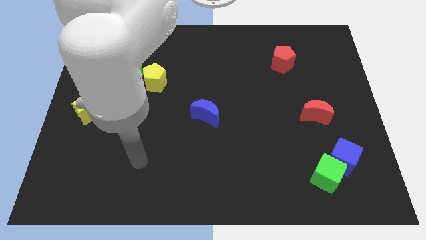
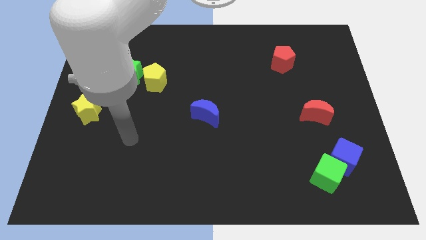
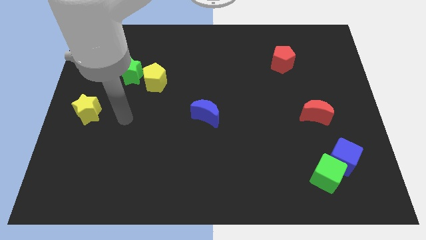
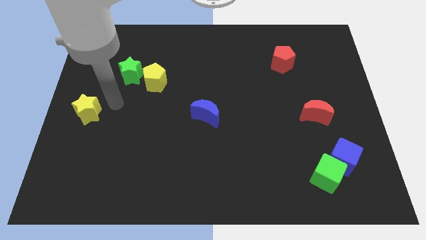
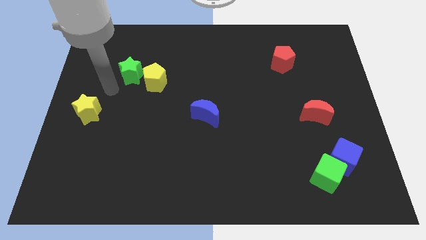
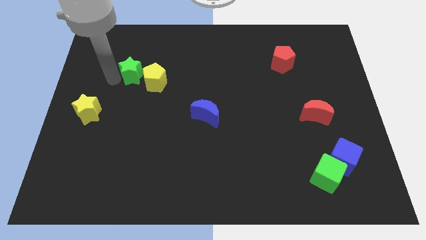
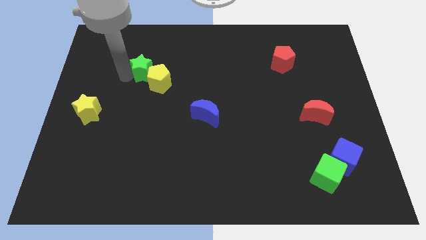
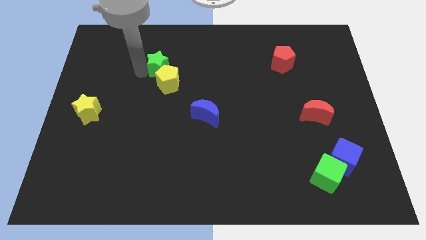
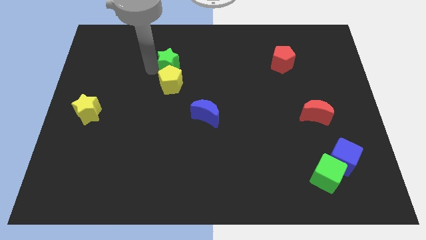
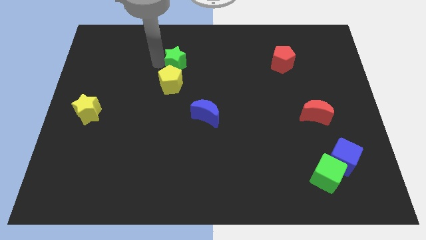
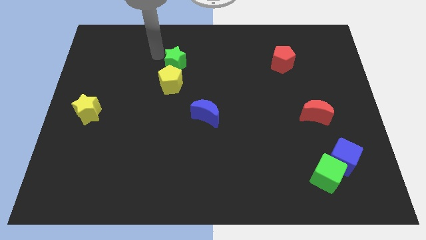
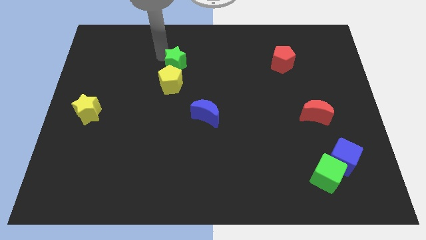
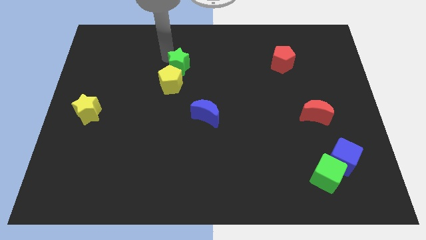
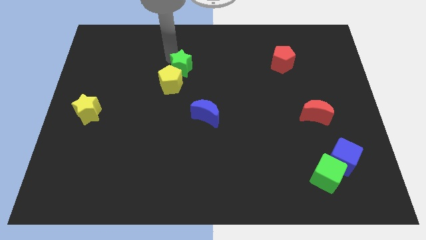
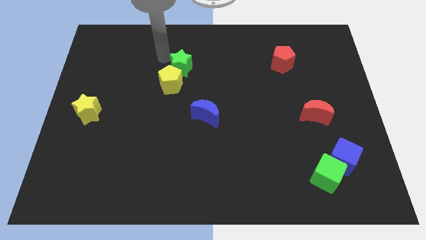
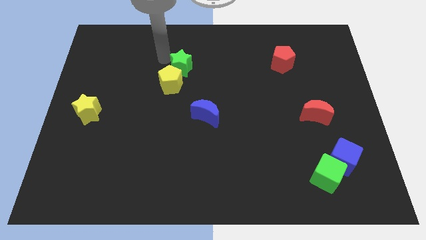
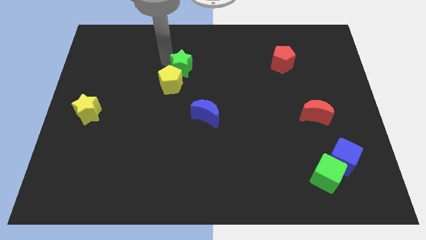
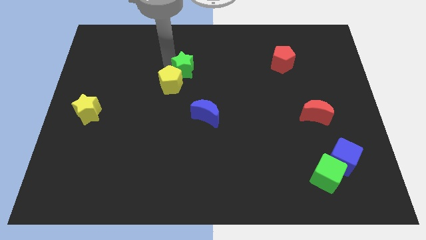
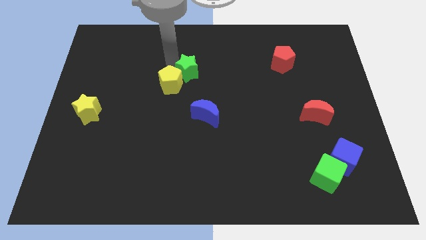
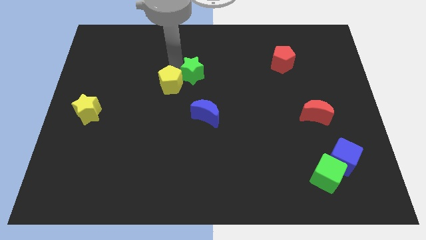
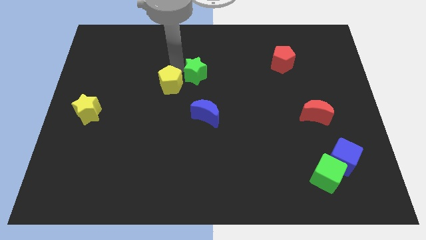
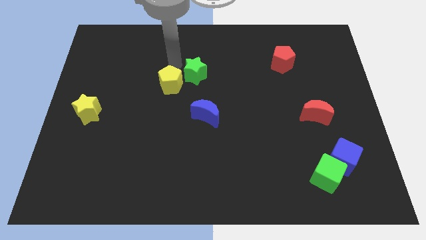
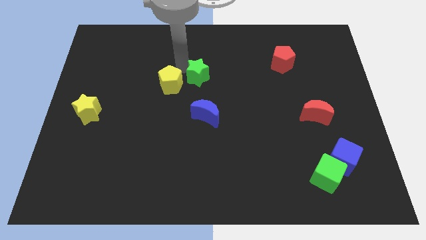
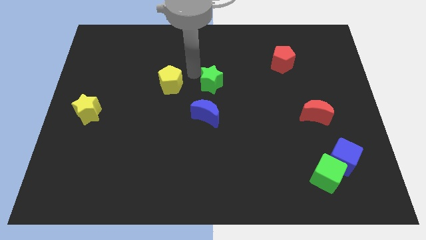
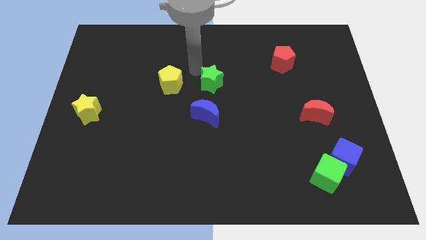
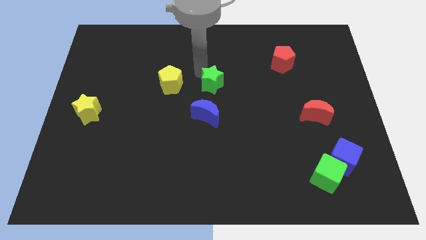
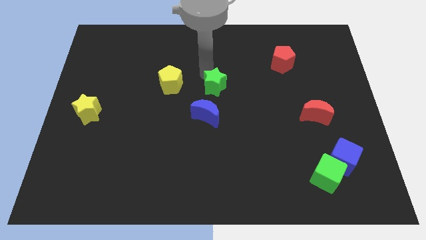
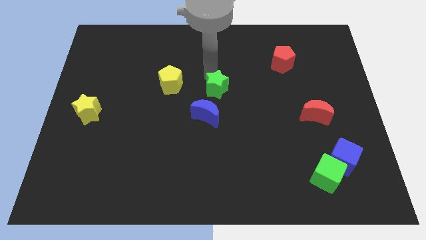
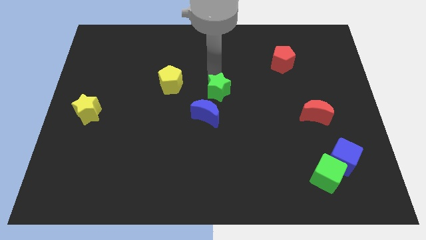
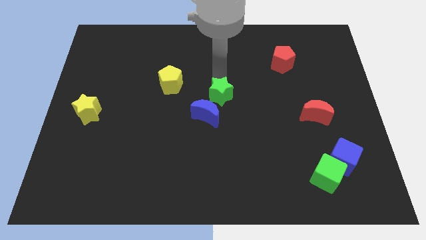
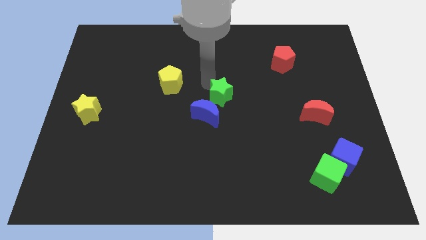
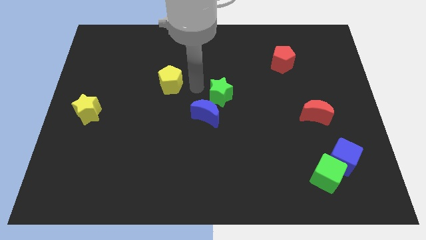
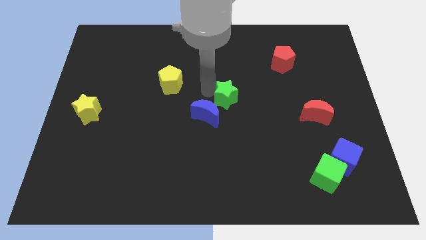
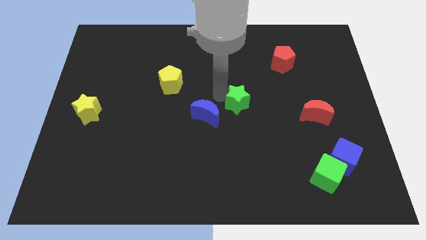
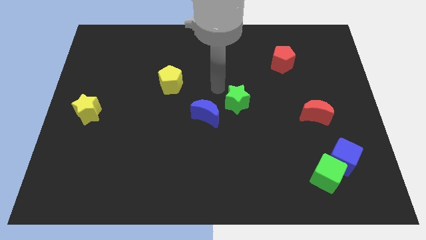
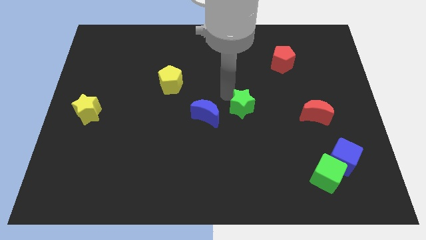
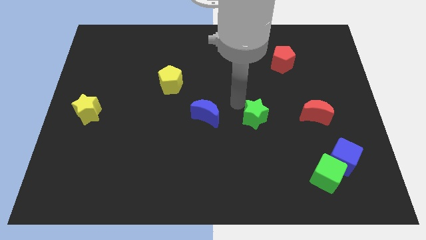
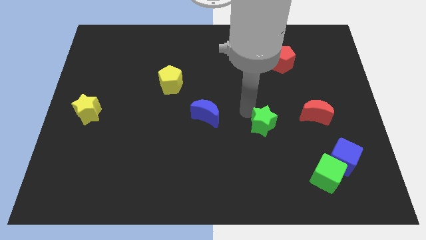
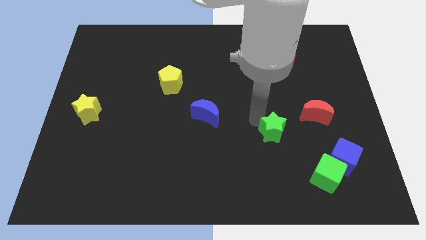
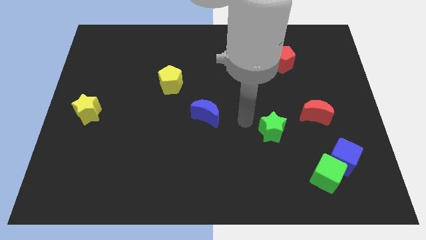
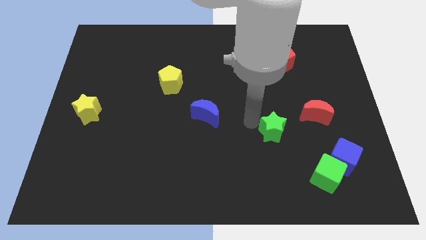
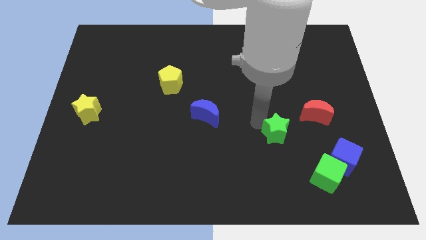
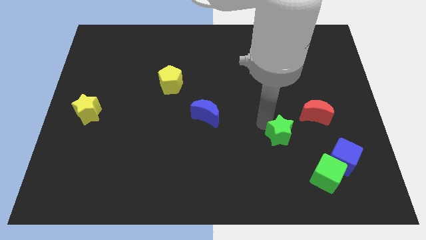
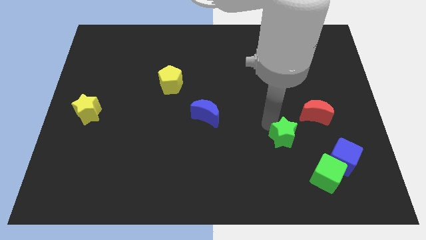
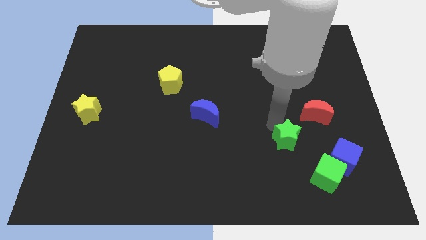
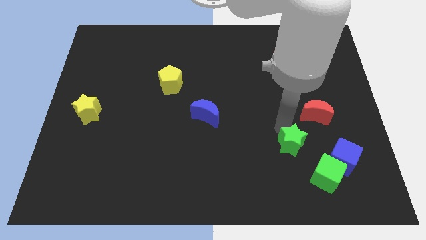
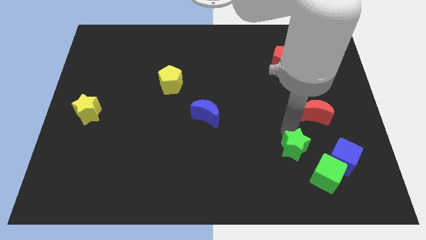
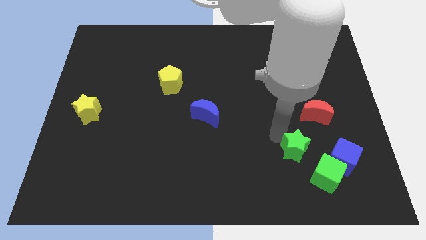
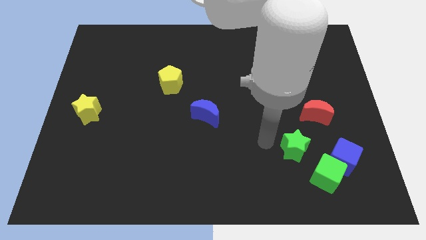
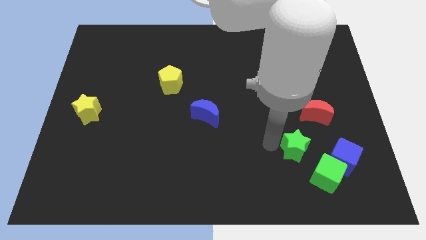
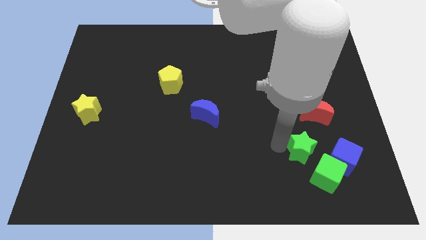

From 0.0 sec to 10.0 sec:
move the green star below the red moon

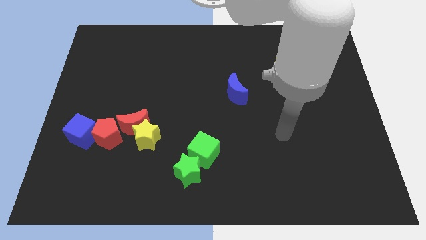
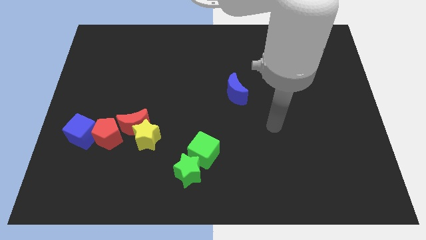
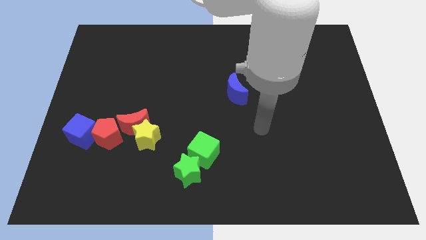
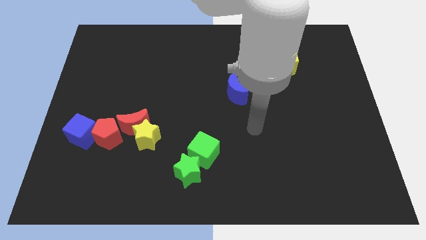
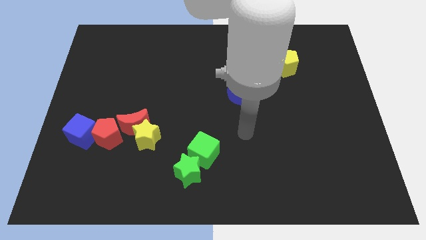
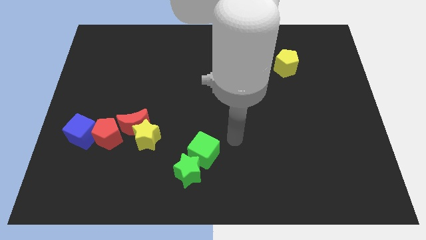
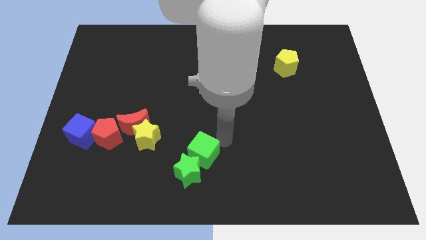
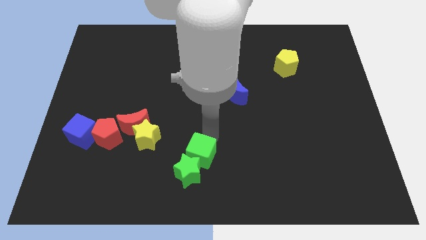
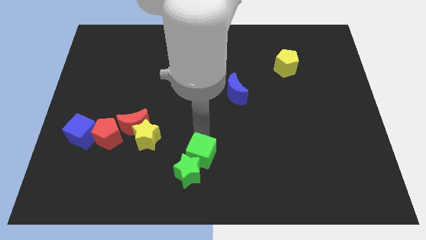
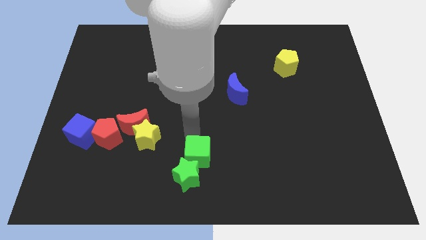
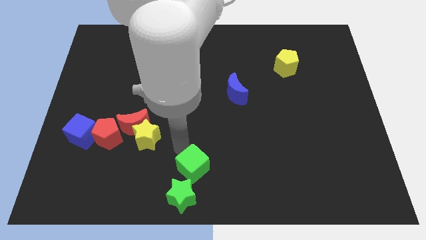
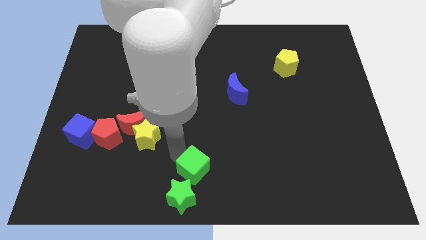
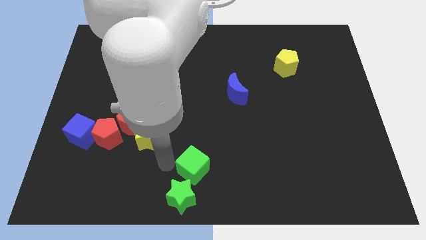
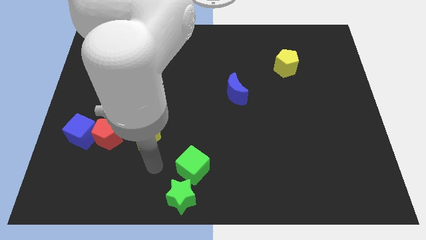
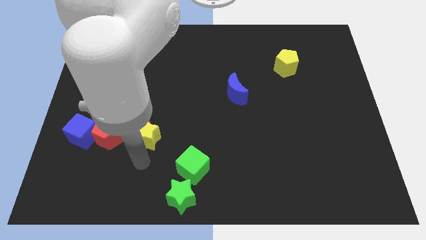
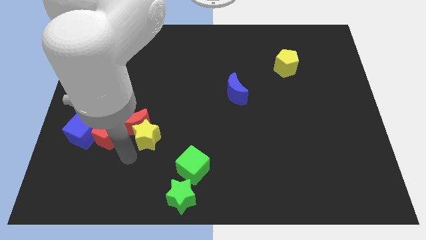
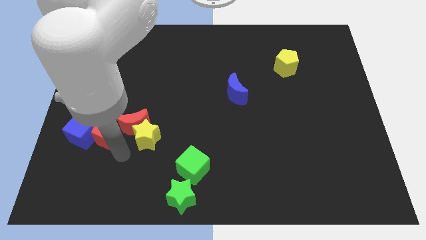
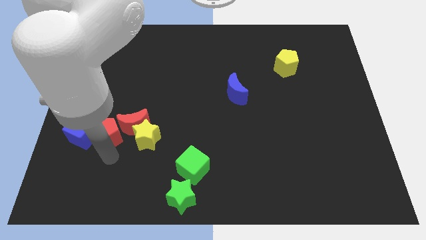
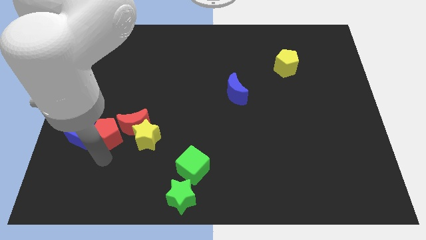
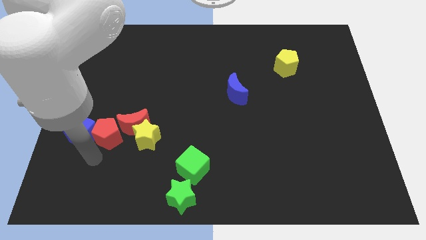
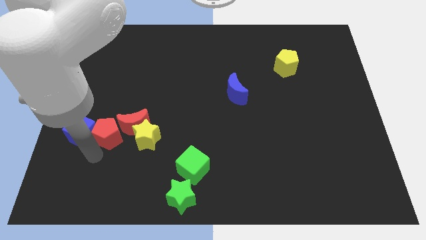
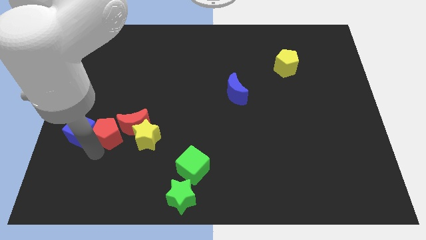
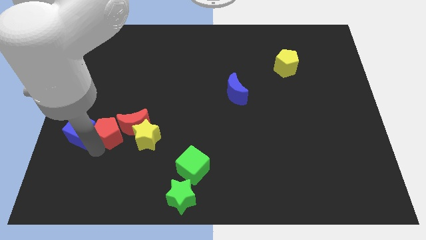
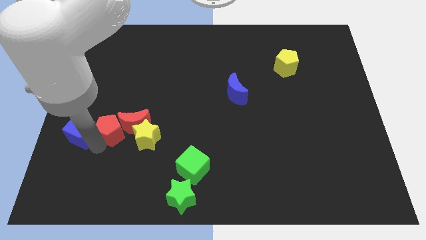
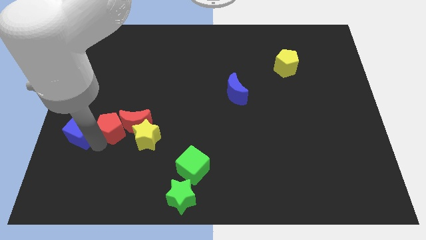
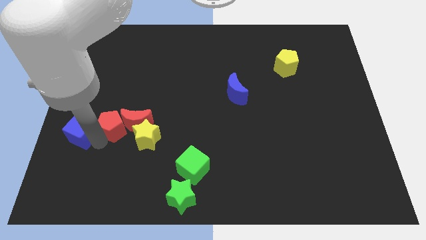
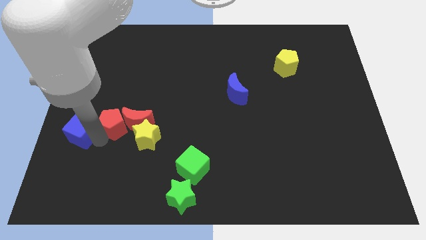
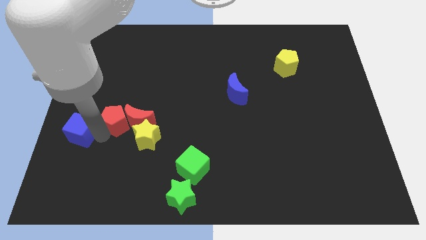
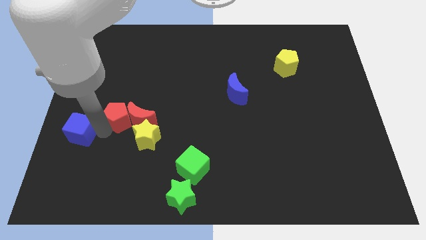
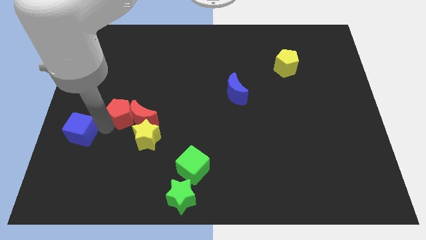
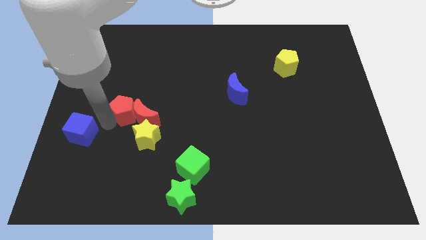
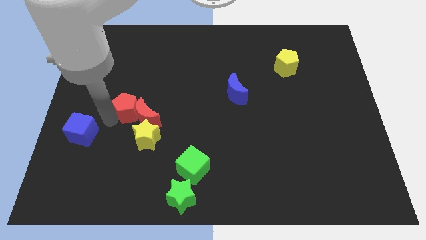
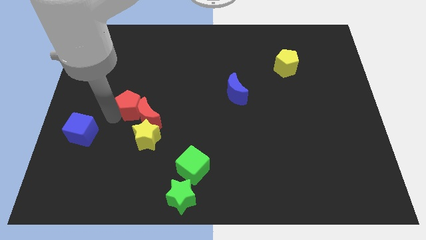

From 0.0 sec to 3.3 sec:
put the red pentagon to the top side of the red moon
